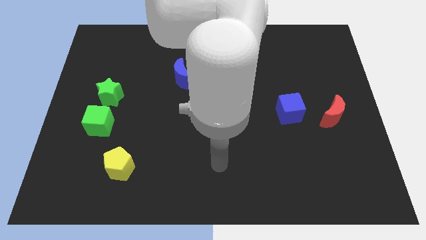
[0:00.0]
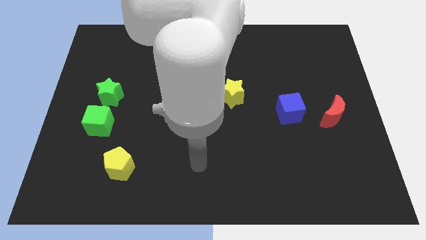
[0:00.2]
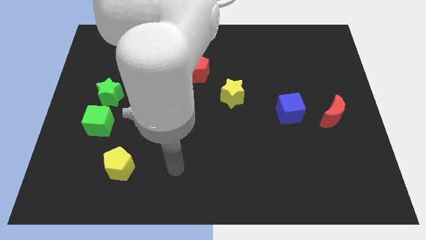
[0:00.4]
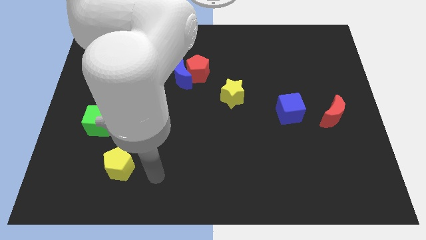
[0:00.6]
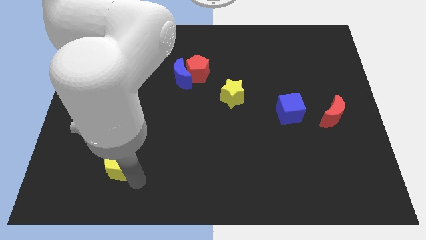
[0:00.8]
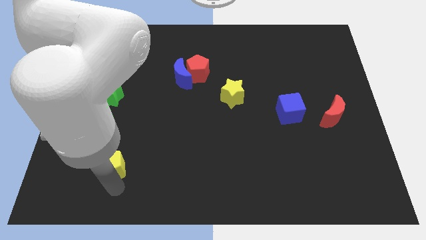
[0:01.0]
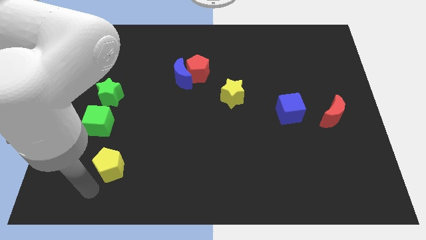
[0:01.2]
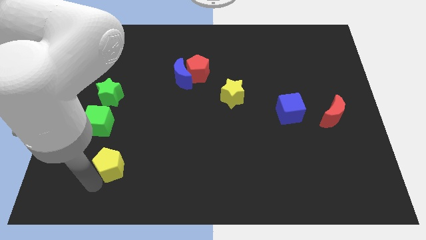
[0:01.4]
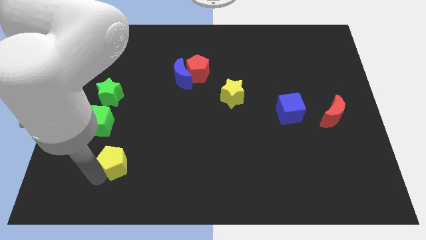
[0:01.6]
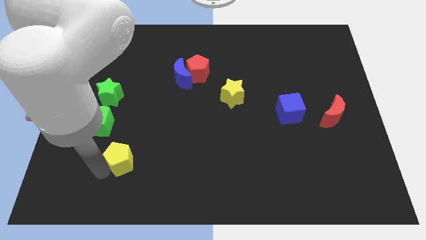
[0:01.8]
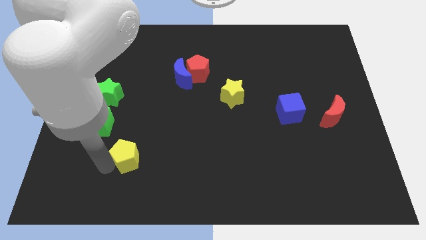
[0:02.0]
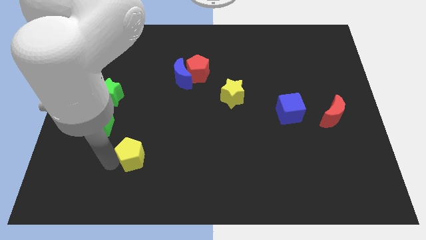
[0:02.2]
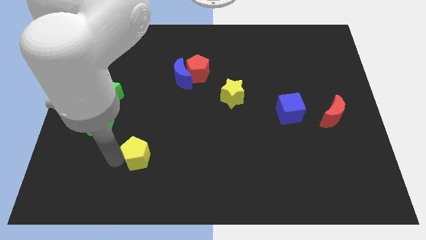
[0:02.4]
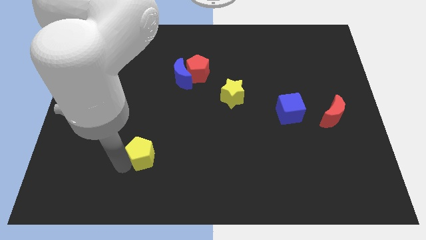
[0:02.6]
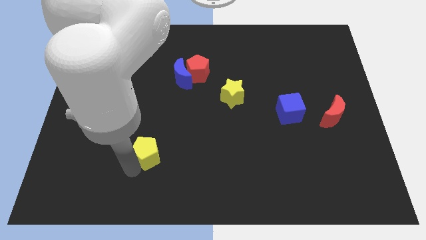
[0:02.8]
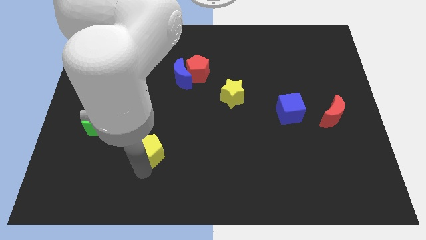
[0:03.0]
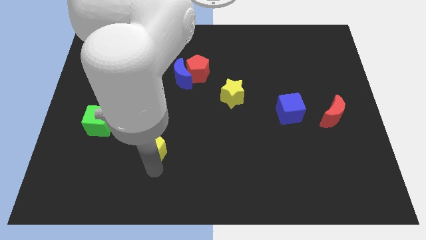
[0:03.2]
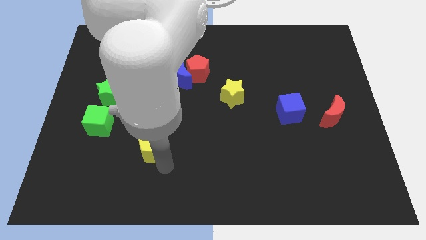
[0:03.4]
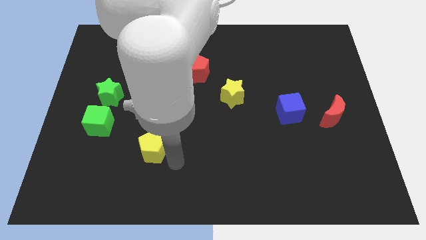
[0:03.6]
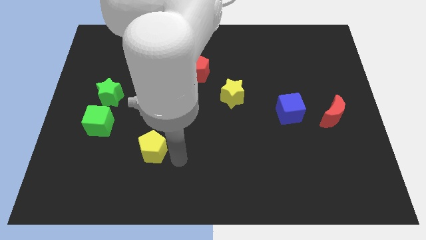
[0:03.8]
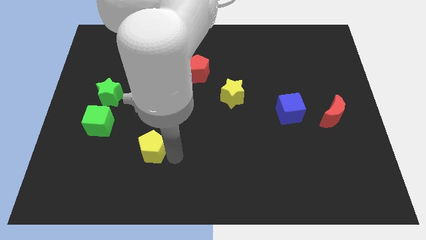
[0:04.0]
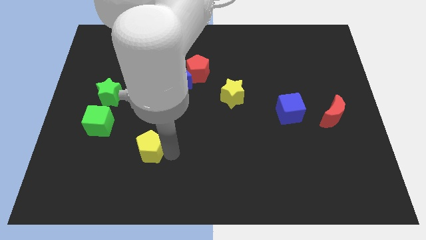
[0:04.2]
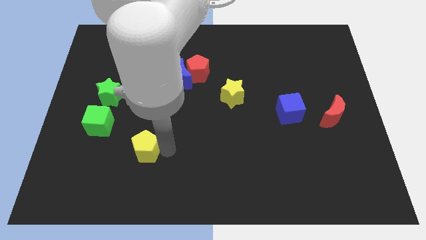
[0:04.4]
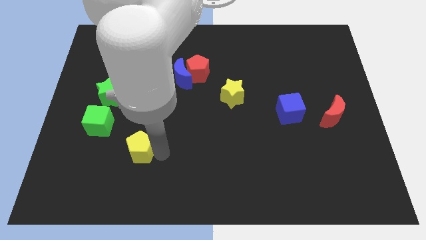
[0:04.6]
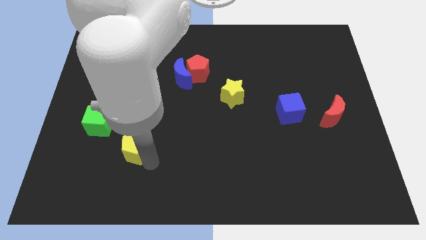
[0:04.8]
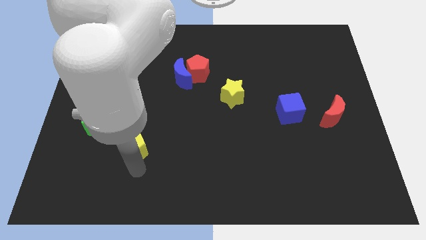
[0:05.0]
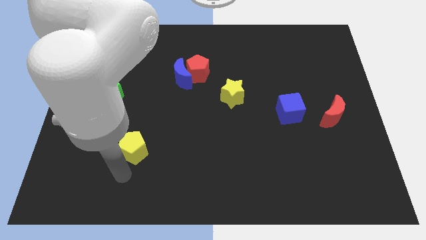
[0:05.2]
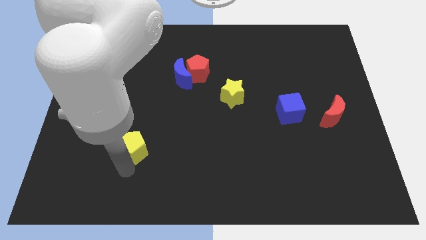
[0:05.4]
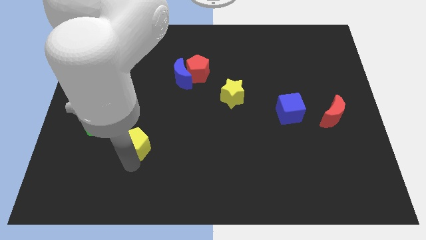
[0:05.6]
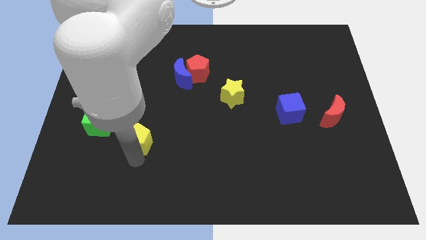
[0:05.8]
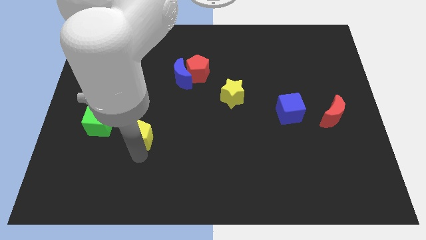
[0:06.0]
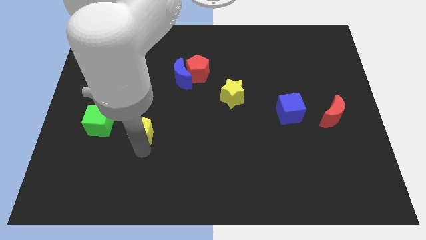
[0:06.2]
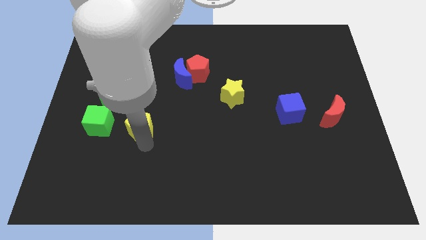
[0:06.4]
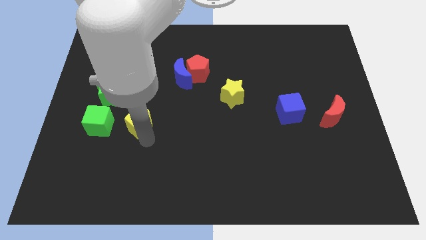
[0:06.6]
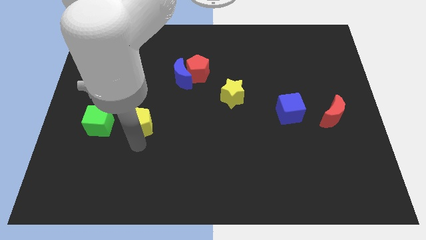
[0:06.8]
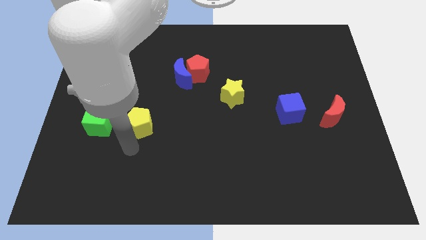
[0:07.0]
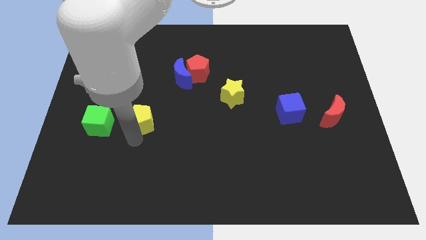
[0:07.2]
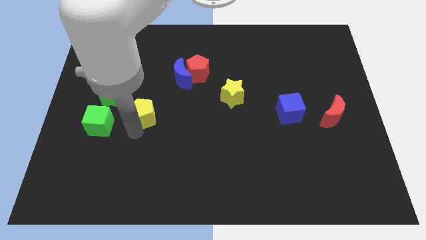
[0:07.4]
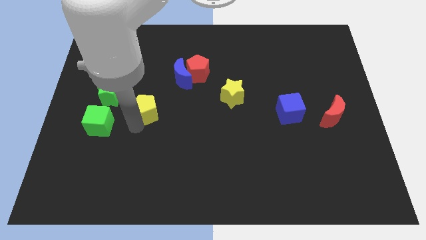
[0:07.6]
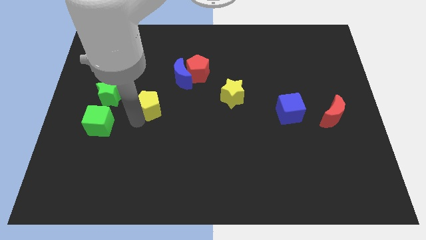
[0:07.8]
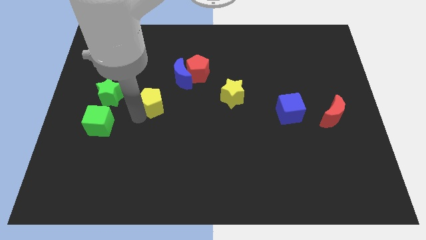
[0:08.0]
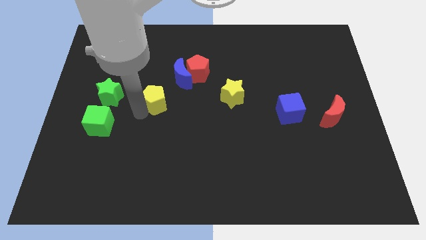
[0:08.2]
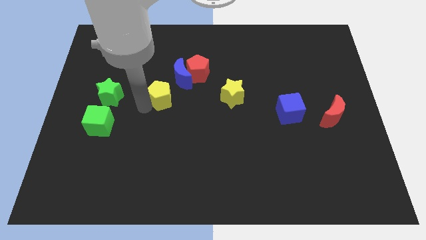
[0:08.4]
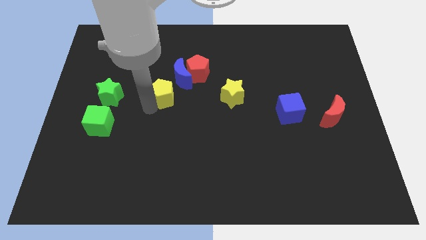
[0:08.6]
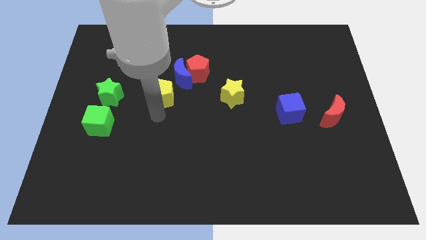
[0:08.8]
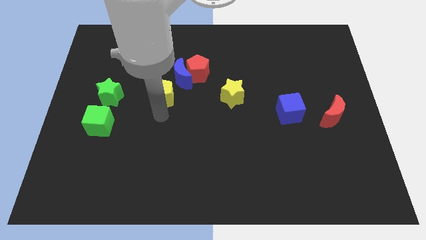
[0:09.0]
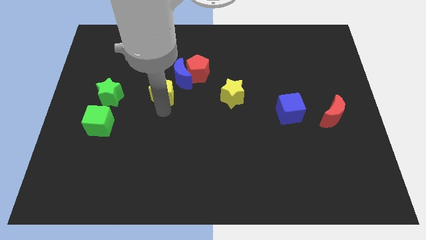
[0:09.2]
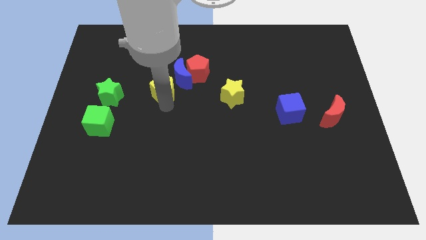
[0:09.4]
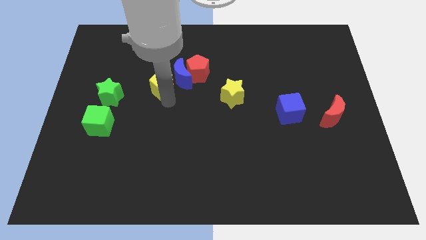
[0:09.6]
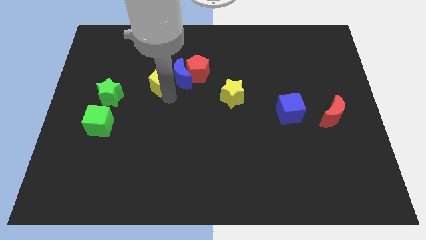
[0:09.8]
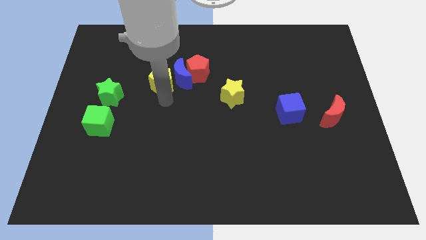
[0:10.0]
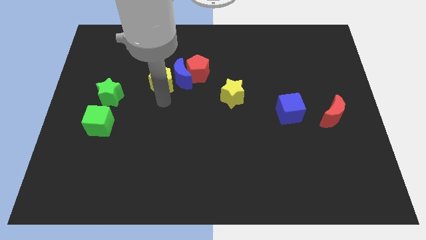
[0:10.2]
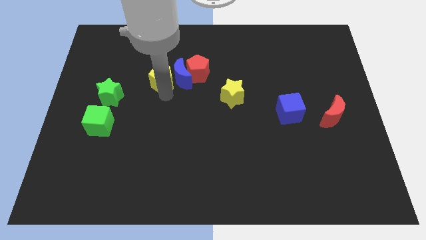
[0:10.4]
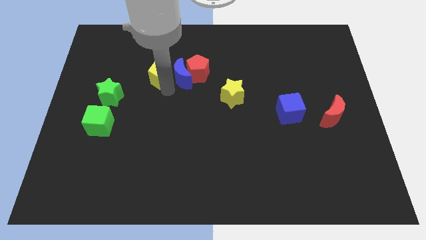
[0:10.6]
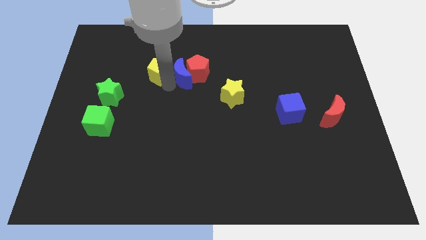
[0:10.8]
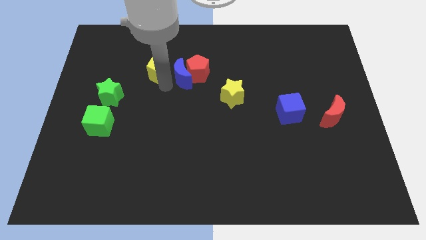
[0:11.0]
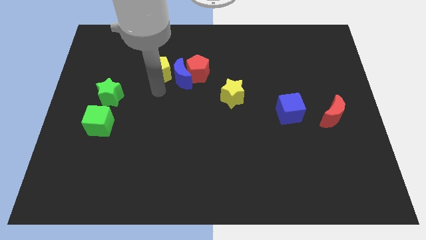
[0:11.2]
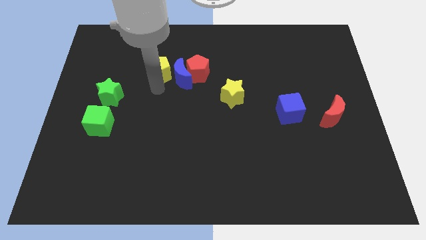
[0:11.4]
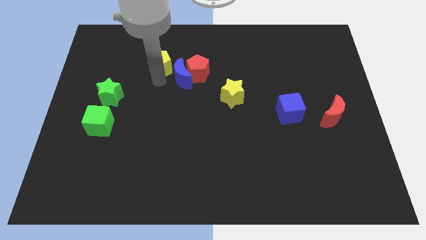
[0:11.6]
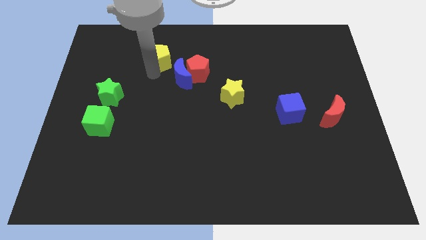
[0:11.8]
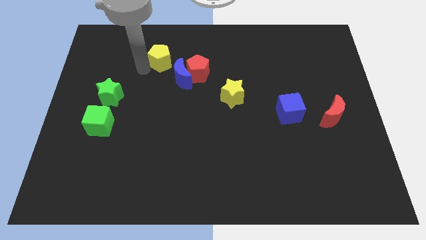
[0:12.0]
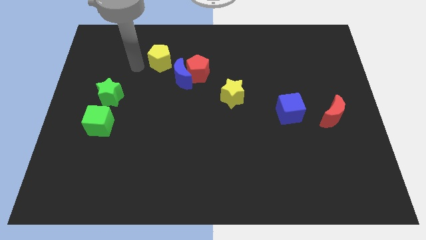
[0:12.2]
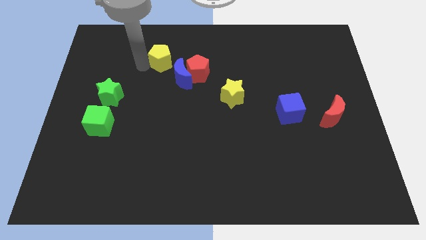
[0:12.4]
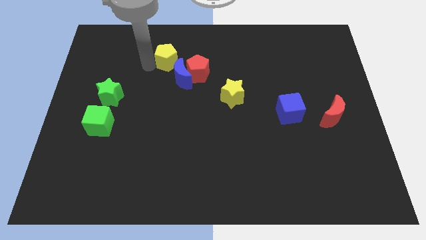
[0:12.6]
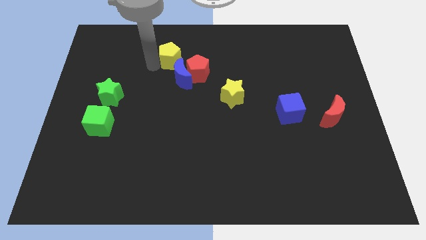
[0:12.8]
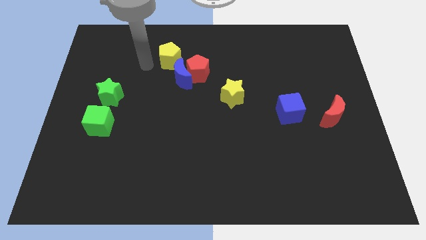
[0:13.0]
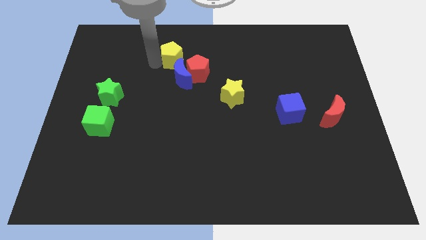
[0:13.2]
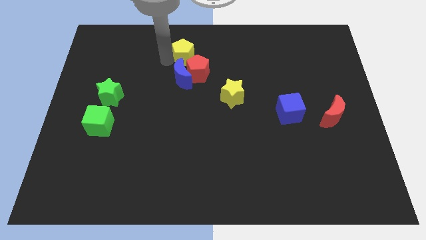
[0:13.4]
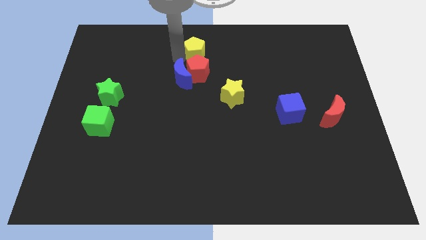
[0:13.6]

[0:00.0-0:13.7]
push the yellow pentagon to the top side

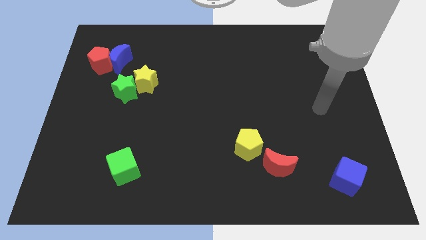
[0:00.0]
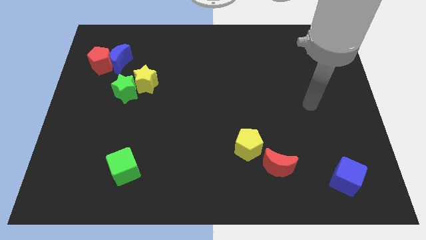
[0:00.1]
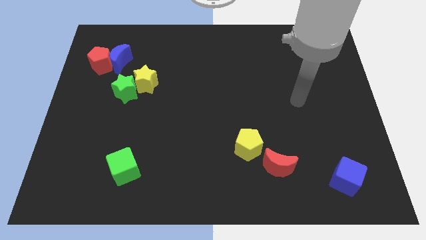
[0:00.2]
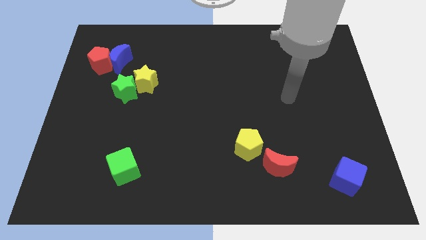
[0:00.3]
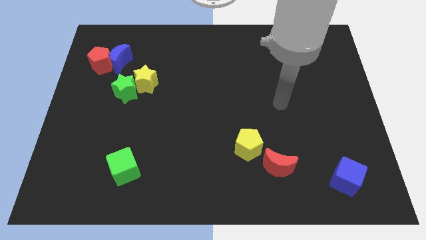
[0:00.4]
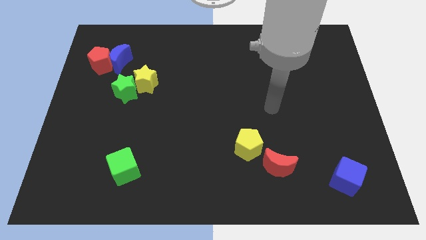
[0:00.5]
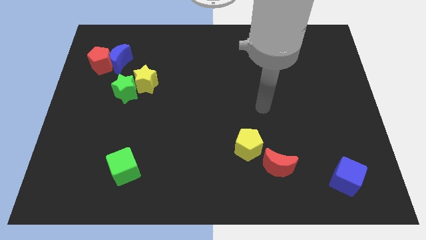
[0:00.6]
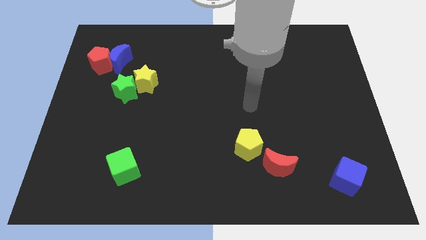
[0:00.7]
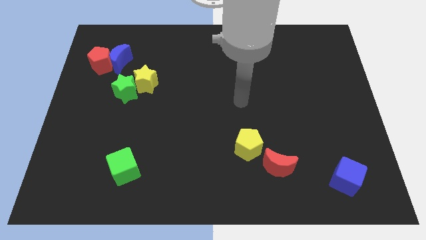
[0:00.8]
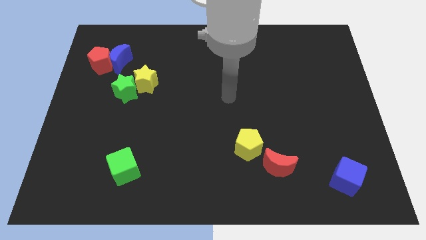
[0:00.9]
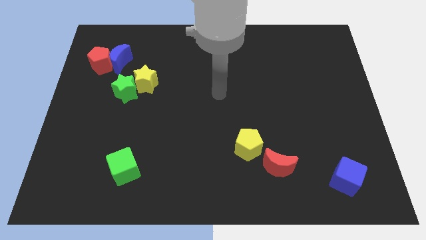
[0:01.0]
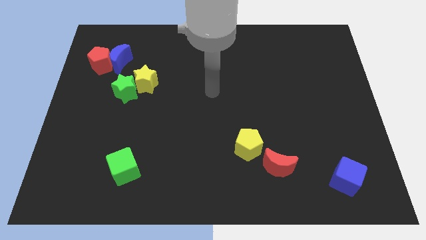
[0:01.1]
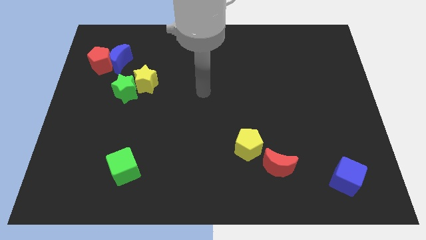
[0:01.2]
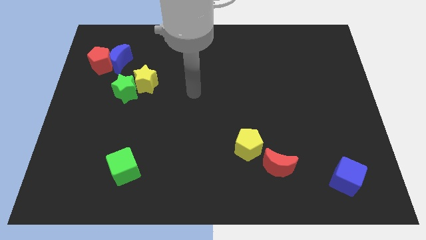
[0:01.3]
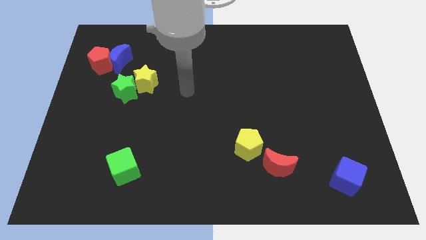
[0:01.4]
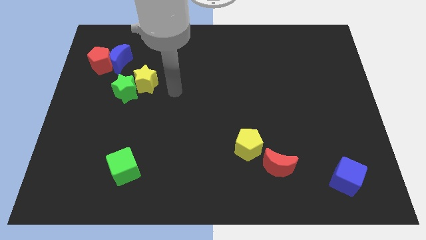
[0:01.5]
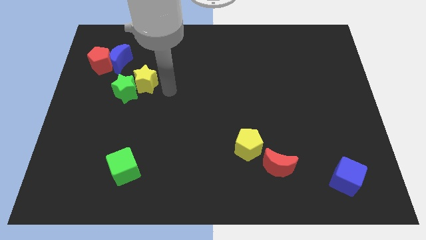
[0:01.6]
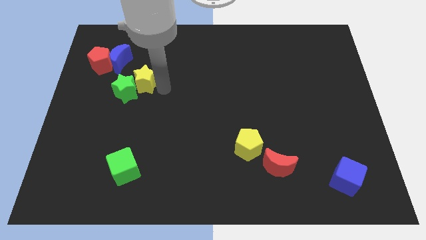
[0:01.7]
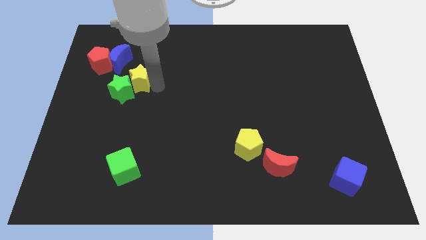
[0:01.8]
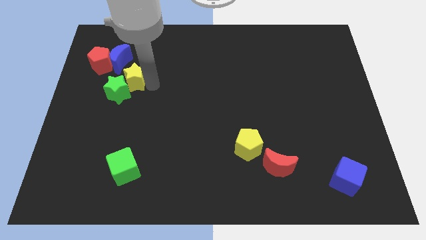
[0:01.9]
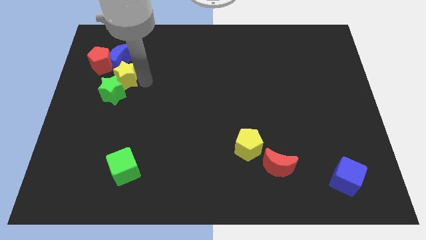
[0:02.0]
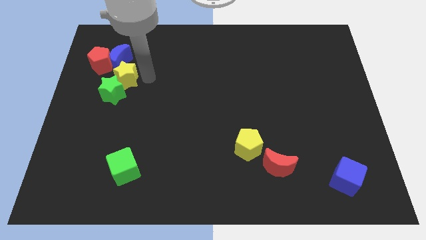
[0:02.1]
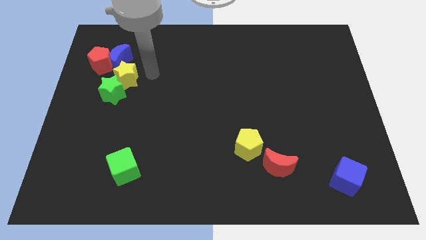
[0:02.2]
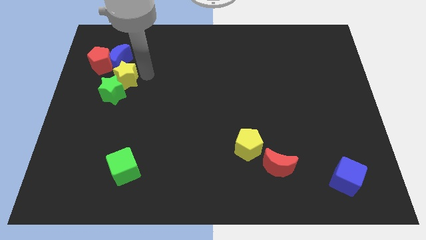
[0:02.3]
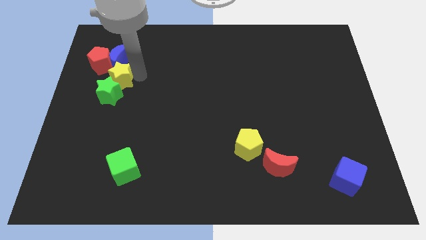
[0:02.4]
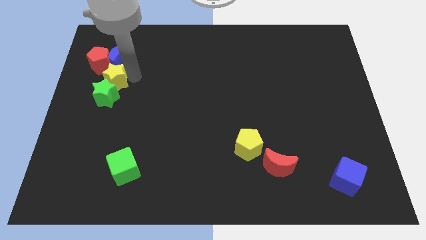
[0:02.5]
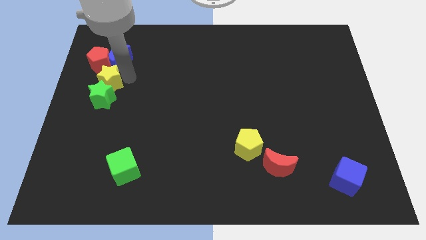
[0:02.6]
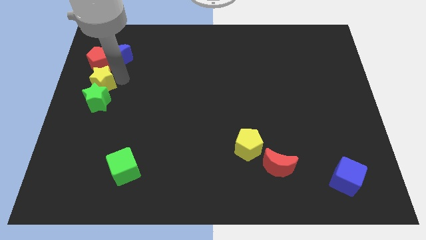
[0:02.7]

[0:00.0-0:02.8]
slide the yellow star to the center left
